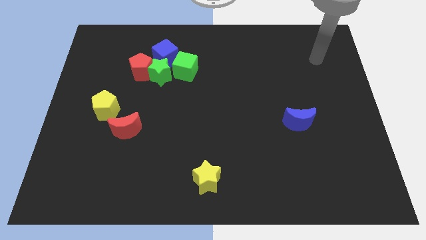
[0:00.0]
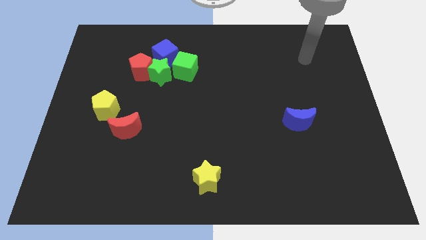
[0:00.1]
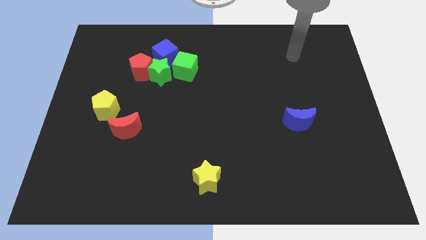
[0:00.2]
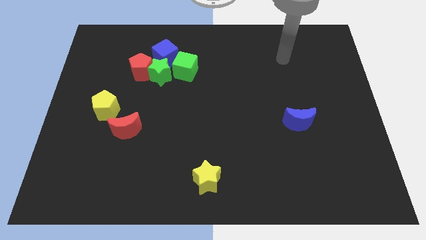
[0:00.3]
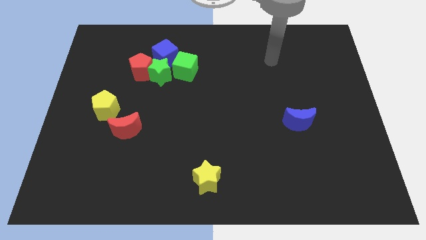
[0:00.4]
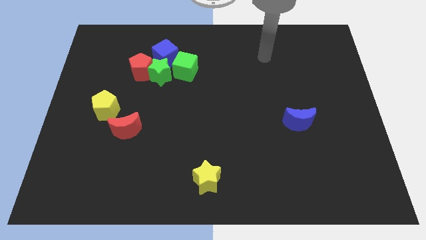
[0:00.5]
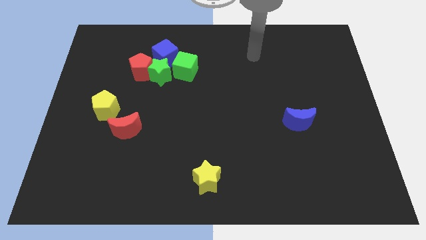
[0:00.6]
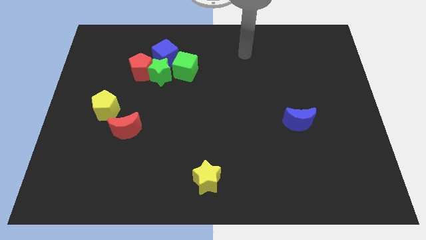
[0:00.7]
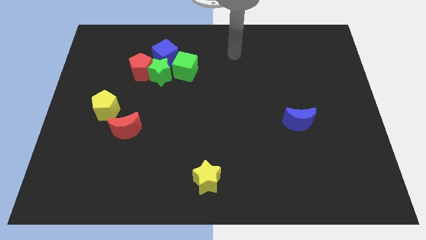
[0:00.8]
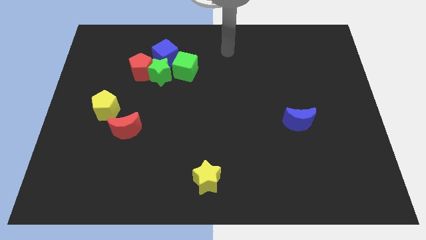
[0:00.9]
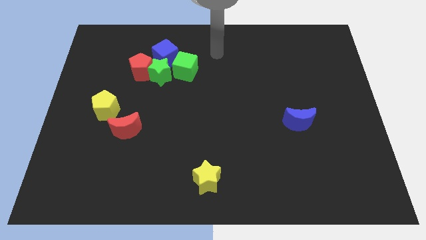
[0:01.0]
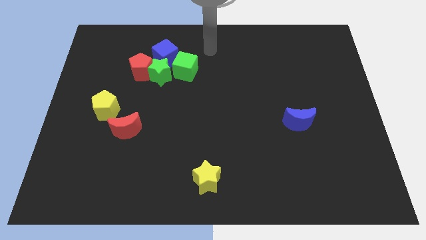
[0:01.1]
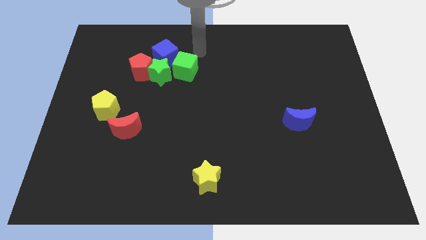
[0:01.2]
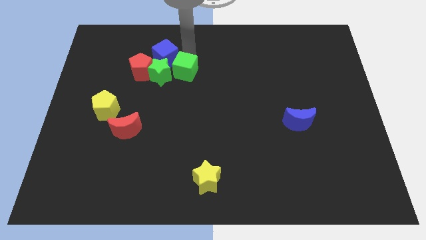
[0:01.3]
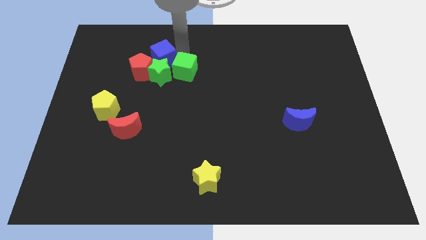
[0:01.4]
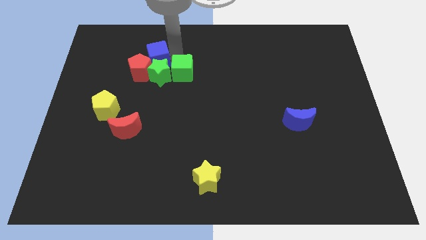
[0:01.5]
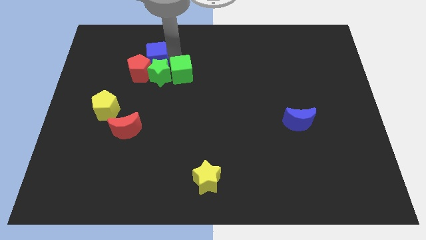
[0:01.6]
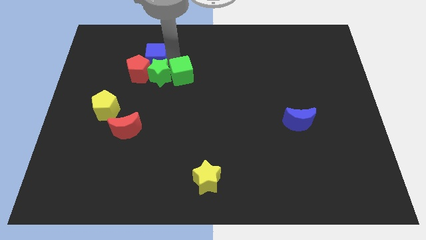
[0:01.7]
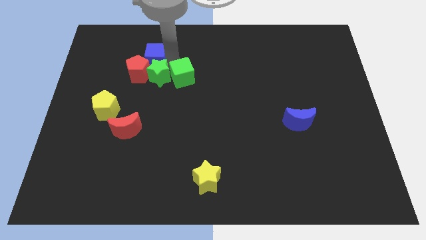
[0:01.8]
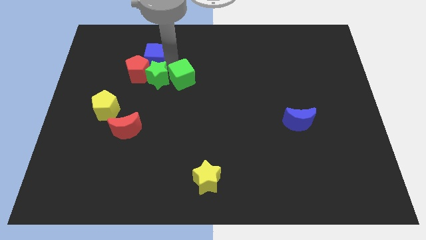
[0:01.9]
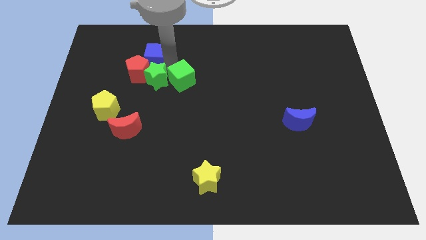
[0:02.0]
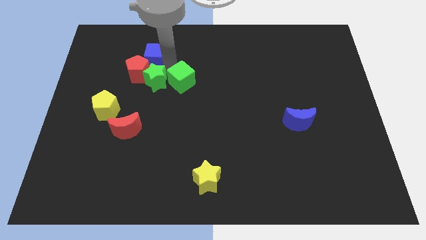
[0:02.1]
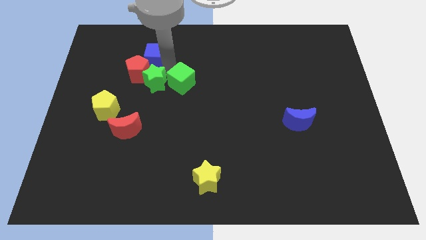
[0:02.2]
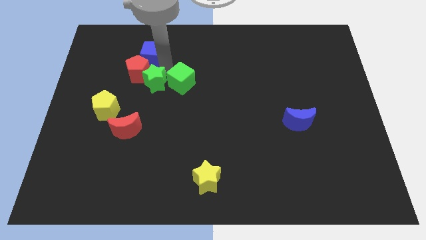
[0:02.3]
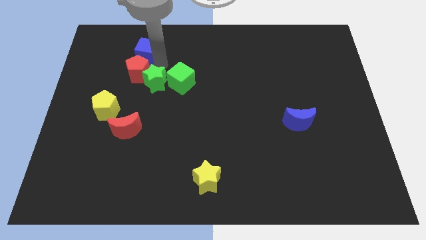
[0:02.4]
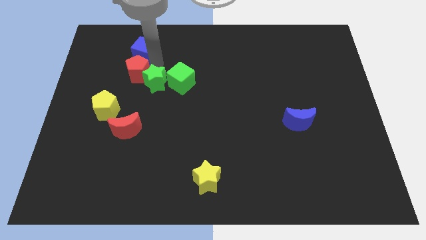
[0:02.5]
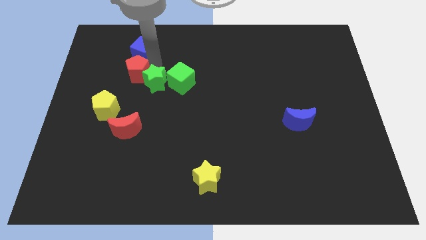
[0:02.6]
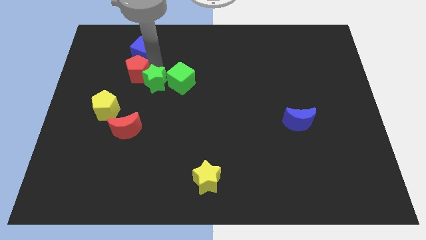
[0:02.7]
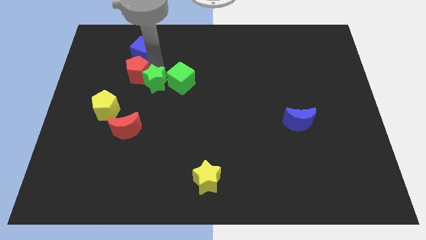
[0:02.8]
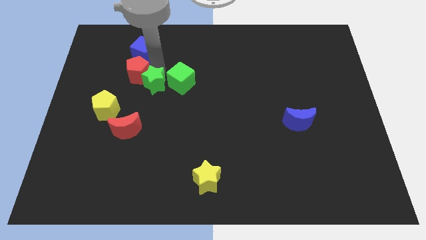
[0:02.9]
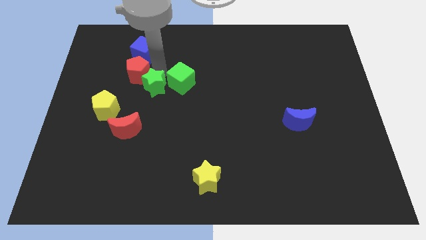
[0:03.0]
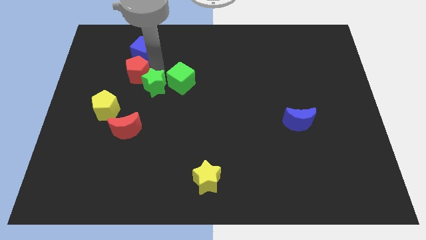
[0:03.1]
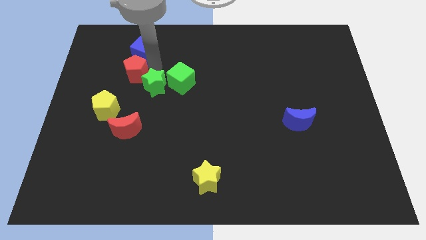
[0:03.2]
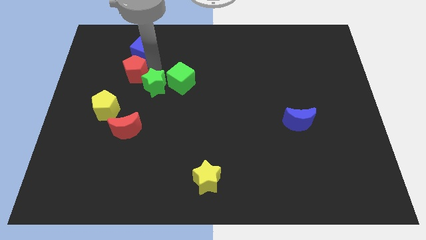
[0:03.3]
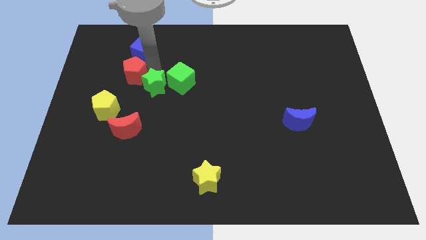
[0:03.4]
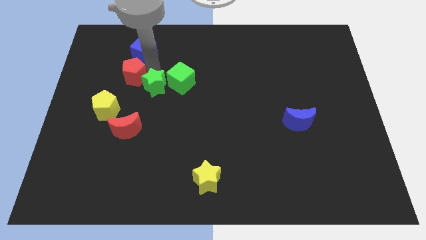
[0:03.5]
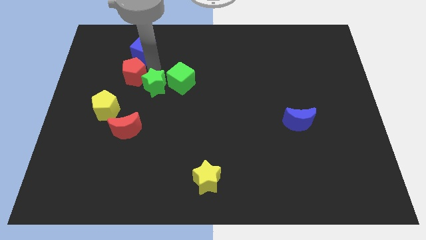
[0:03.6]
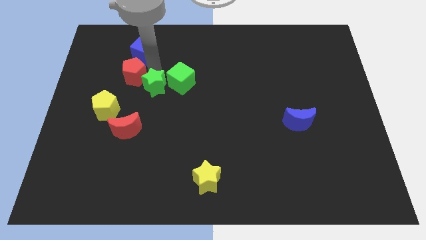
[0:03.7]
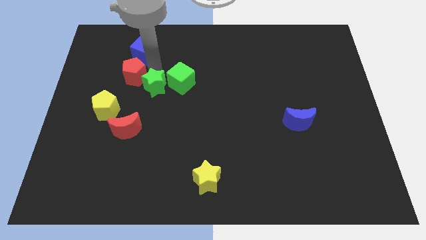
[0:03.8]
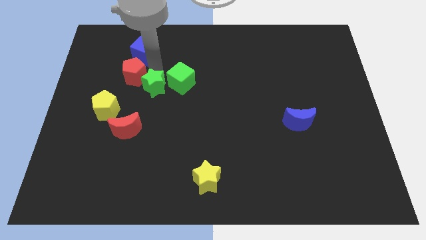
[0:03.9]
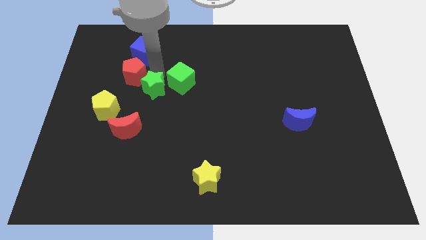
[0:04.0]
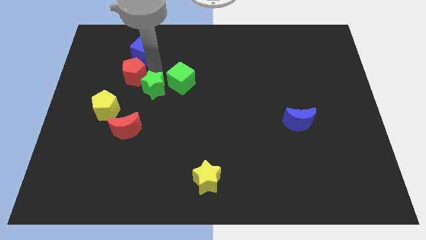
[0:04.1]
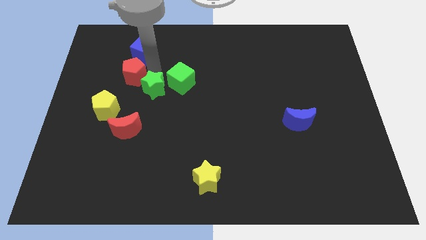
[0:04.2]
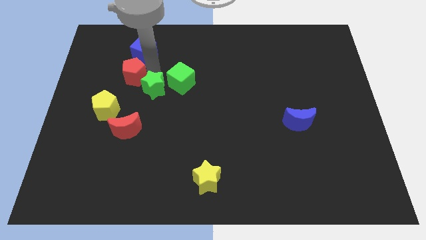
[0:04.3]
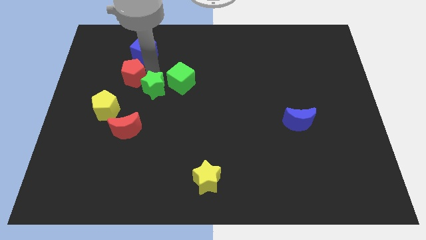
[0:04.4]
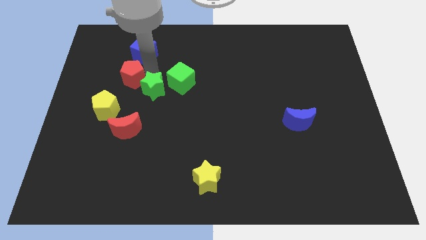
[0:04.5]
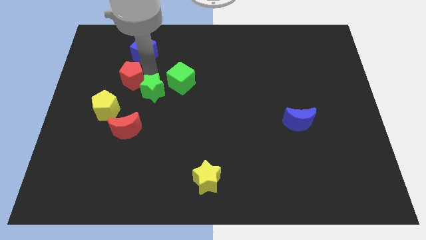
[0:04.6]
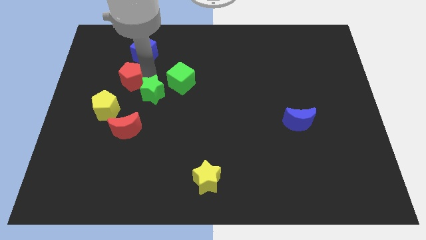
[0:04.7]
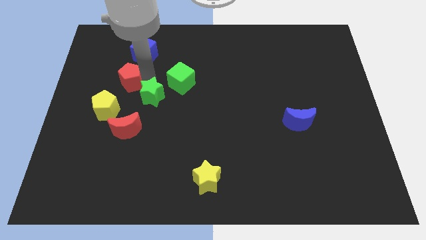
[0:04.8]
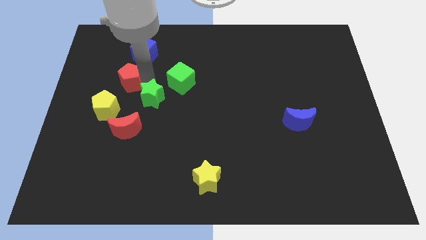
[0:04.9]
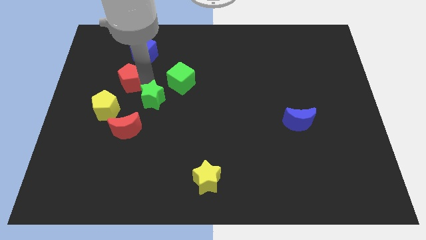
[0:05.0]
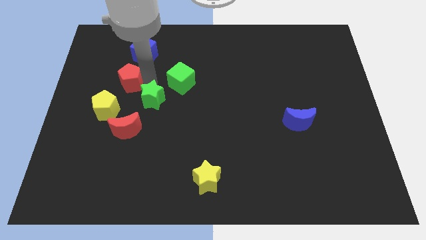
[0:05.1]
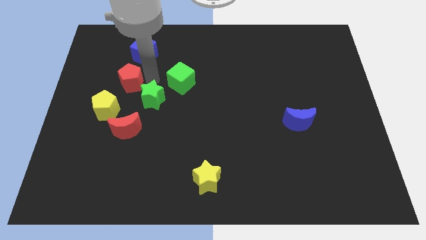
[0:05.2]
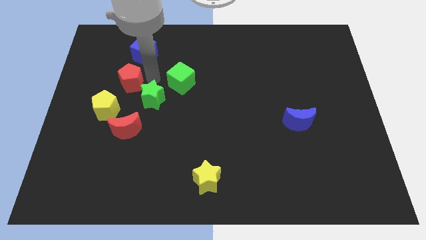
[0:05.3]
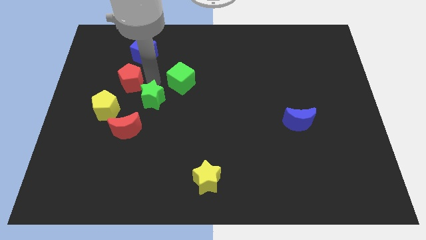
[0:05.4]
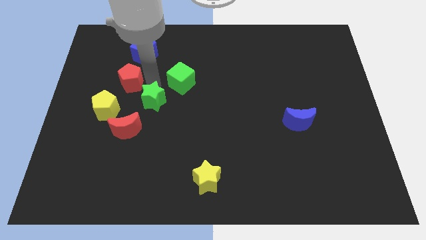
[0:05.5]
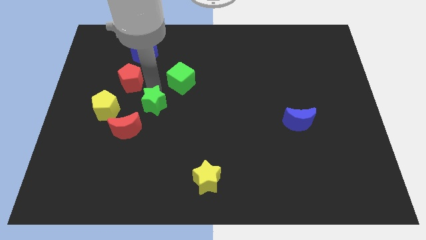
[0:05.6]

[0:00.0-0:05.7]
move the green star away from the red pentagon, blue cube, and green cube

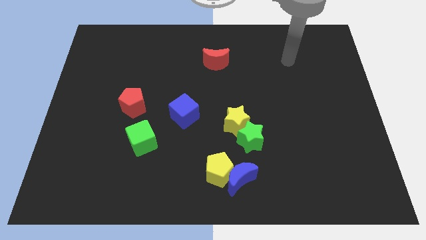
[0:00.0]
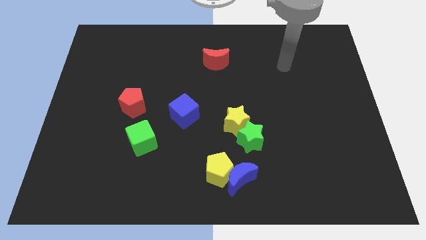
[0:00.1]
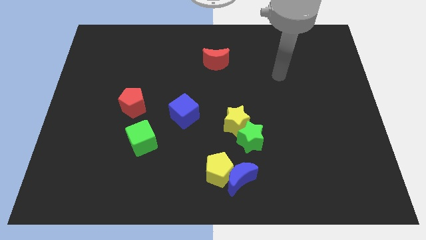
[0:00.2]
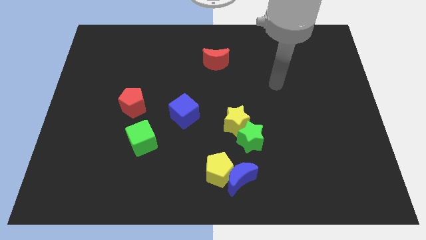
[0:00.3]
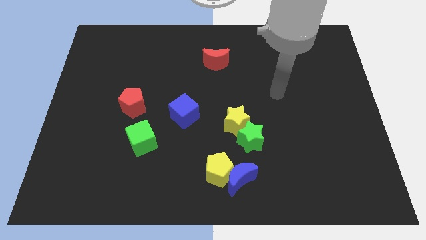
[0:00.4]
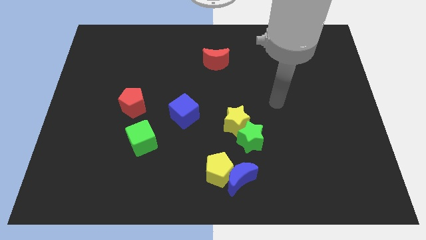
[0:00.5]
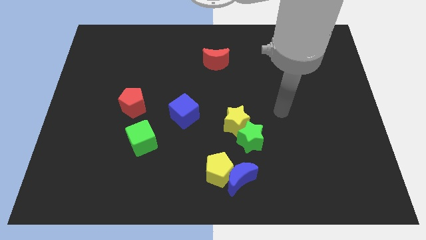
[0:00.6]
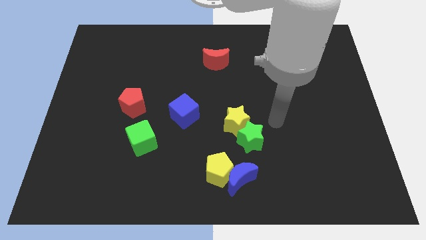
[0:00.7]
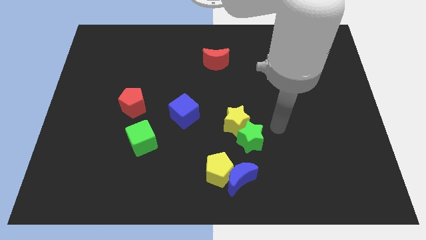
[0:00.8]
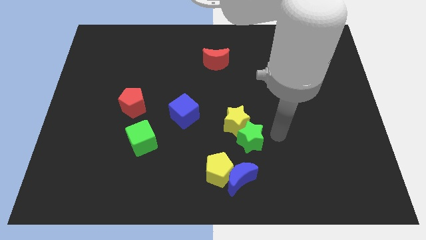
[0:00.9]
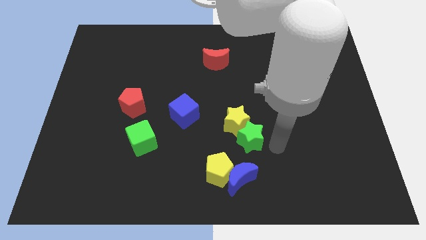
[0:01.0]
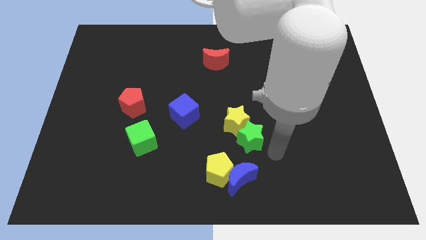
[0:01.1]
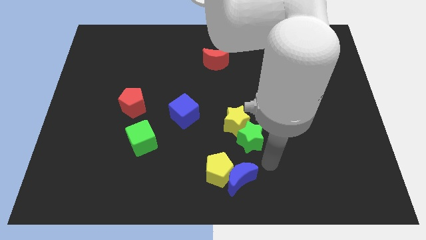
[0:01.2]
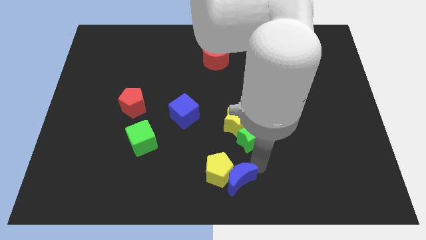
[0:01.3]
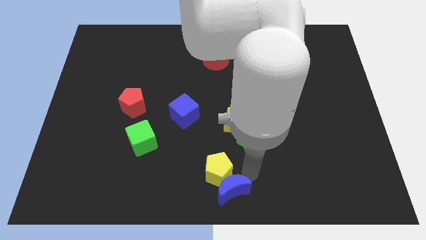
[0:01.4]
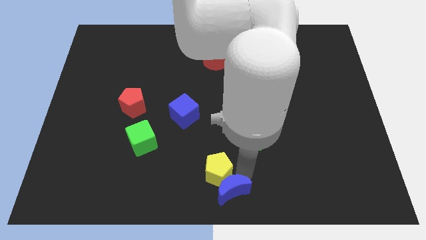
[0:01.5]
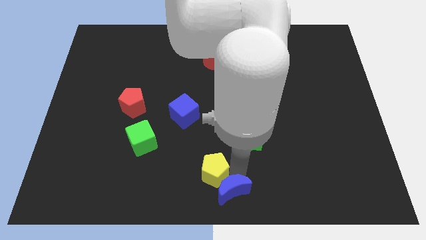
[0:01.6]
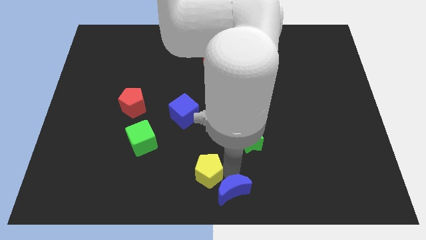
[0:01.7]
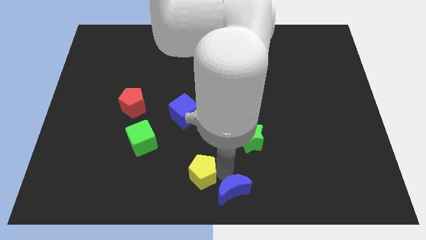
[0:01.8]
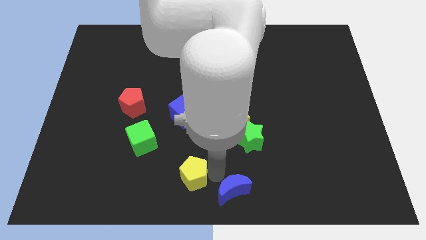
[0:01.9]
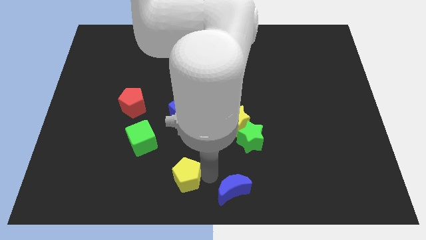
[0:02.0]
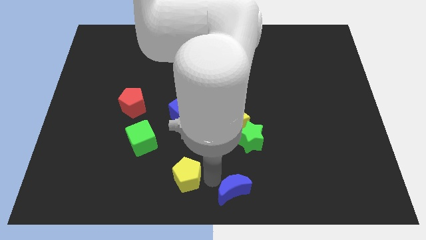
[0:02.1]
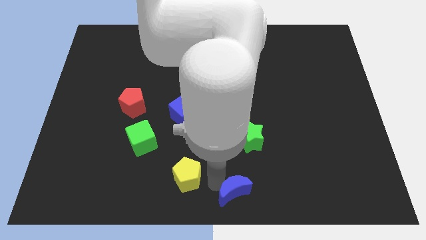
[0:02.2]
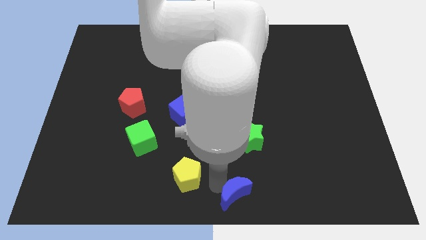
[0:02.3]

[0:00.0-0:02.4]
pull the yellow pentagon apart from the blue moon

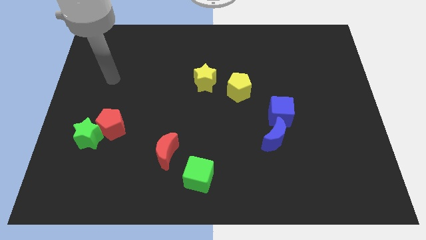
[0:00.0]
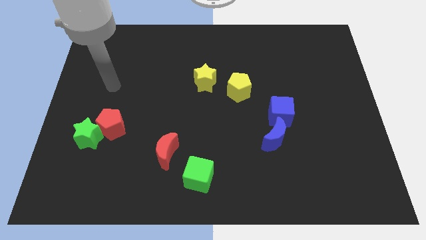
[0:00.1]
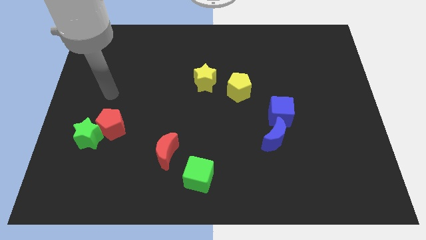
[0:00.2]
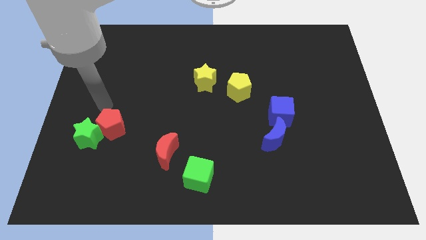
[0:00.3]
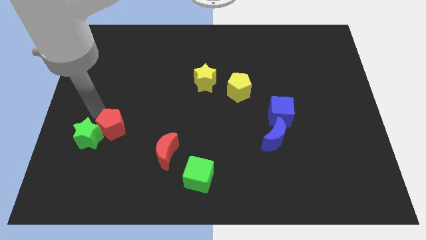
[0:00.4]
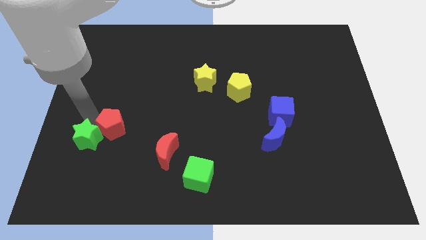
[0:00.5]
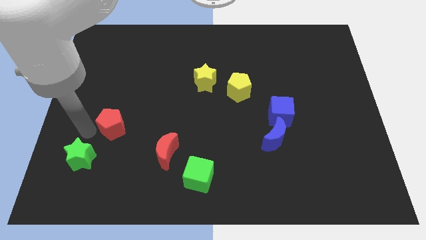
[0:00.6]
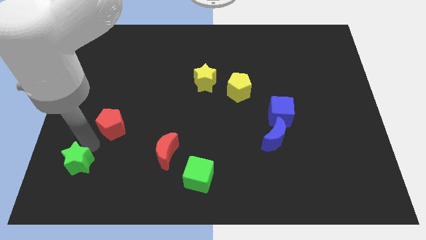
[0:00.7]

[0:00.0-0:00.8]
separate the red pentagon from the green star

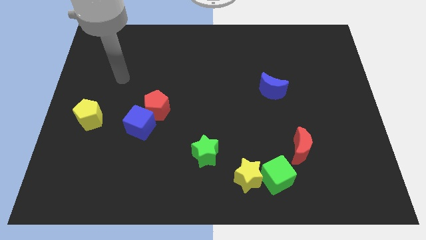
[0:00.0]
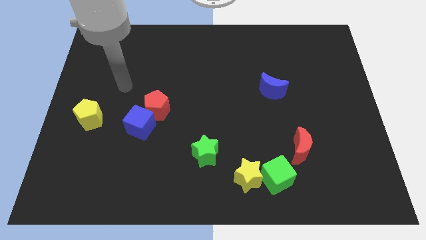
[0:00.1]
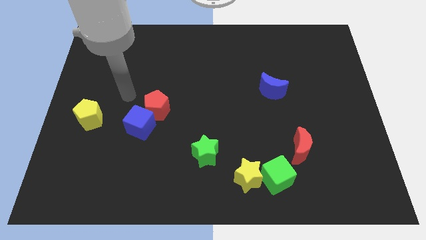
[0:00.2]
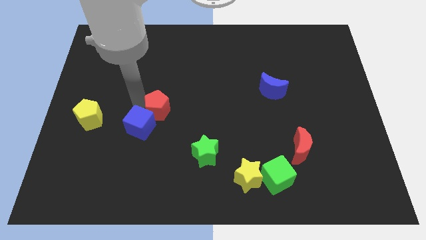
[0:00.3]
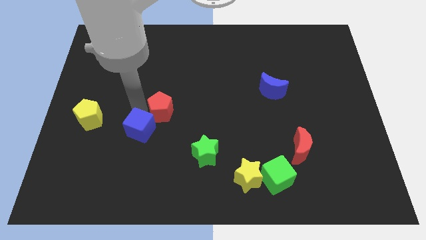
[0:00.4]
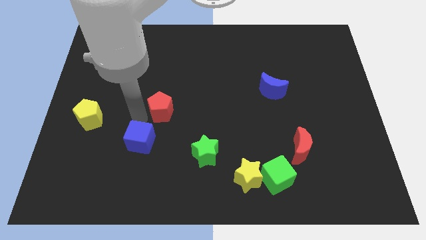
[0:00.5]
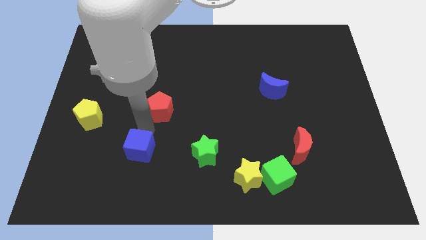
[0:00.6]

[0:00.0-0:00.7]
separate the red pentagon from the blue cube

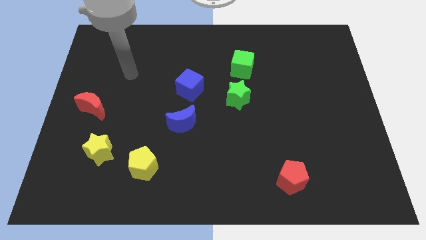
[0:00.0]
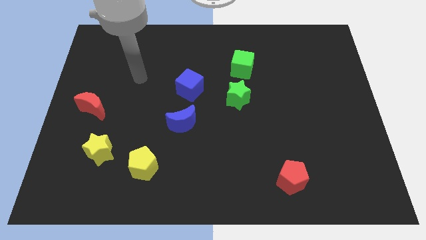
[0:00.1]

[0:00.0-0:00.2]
move the green cube away from the green star
